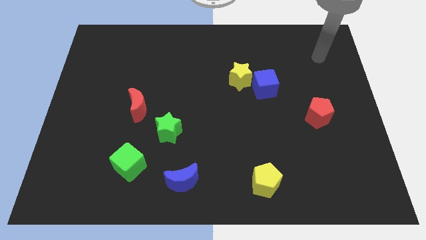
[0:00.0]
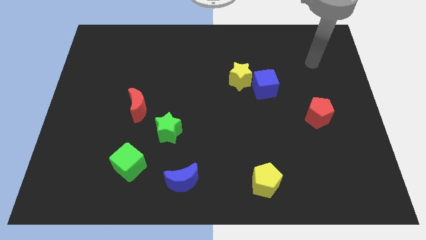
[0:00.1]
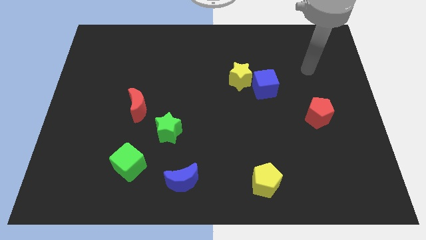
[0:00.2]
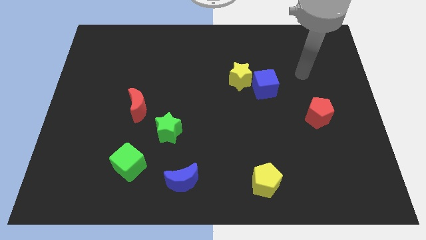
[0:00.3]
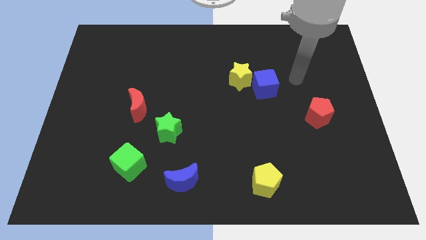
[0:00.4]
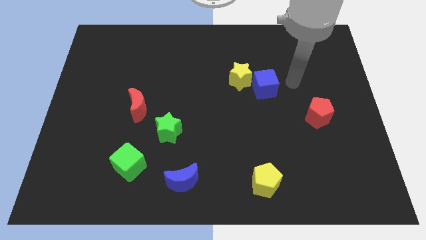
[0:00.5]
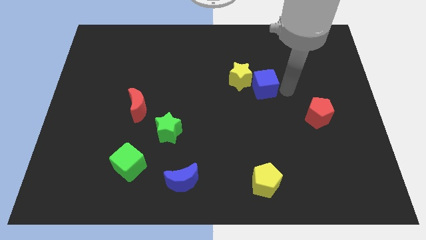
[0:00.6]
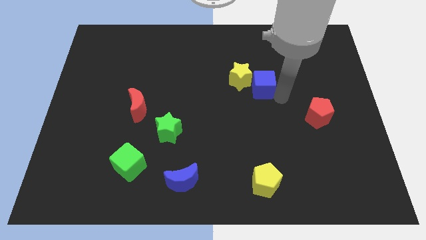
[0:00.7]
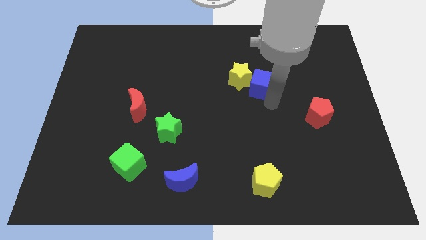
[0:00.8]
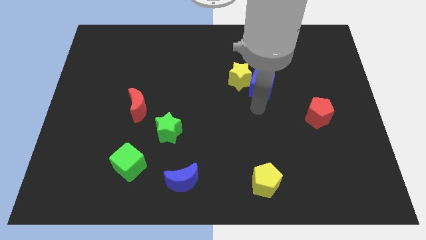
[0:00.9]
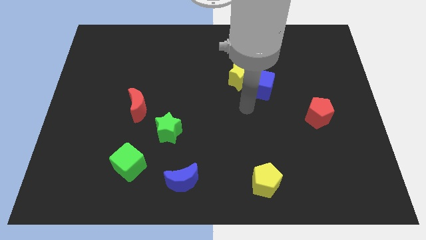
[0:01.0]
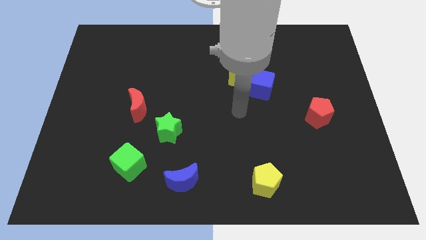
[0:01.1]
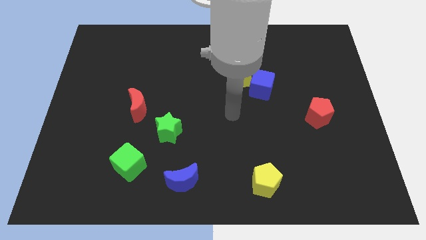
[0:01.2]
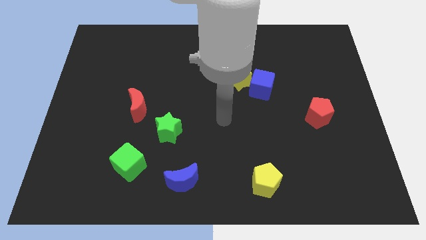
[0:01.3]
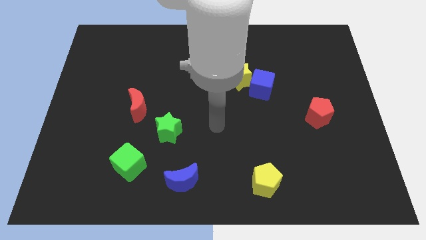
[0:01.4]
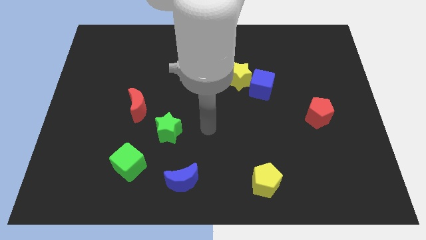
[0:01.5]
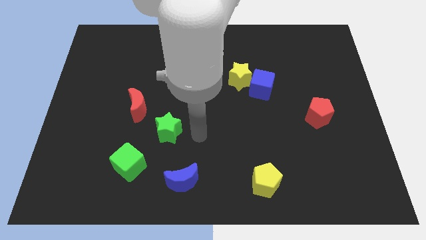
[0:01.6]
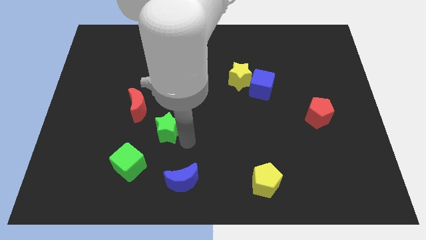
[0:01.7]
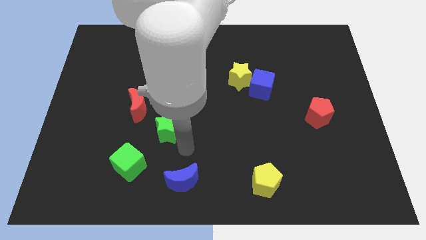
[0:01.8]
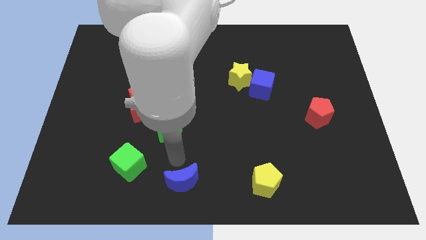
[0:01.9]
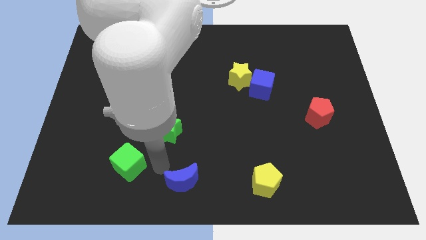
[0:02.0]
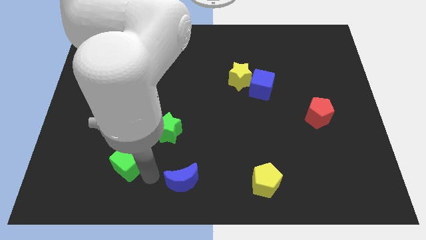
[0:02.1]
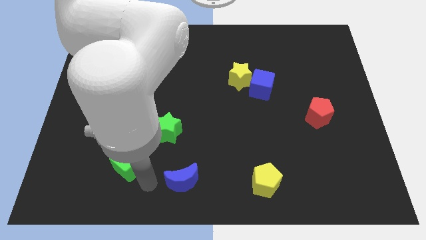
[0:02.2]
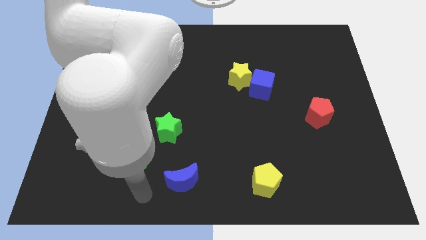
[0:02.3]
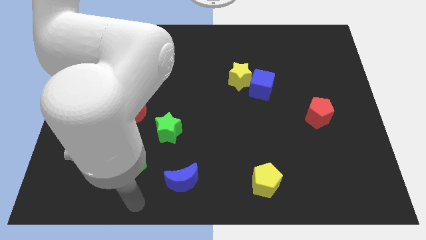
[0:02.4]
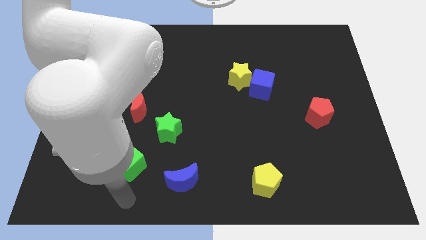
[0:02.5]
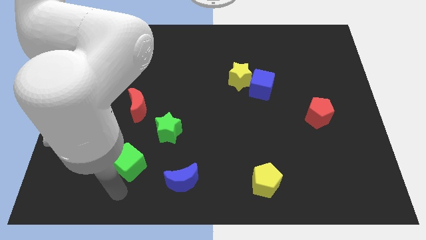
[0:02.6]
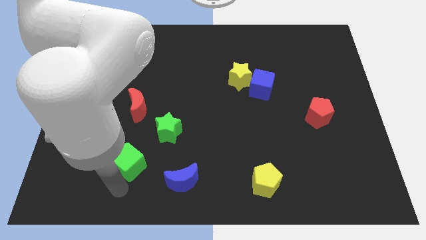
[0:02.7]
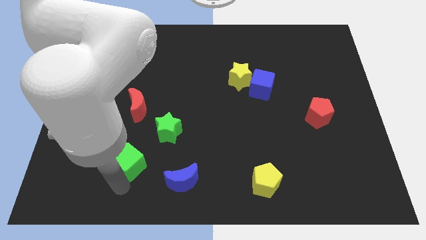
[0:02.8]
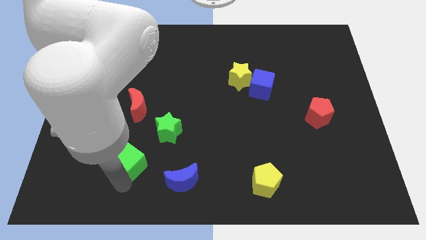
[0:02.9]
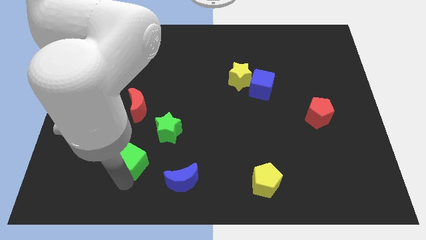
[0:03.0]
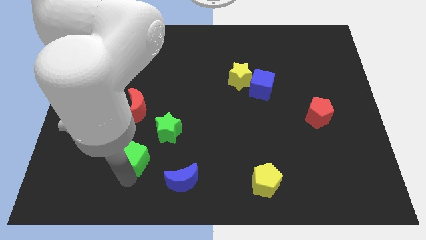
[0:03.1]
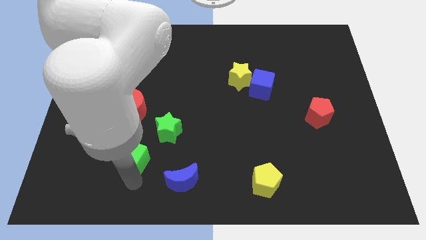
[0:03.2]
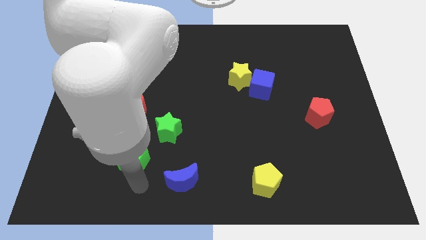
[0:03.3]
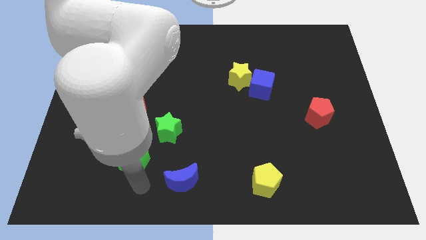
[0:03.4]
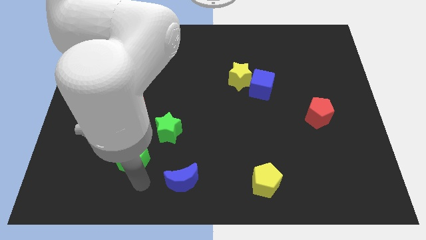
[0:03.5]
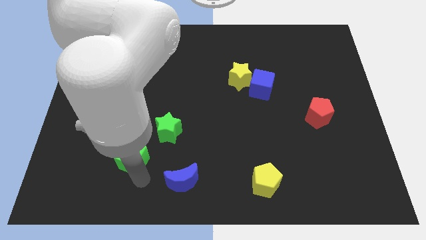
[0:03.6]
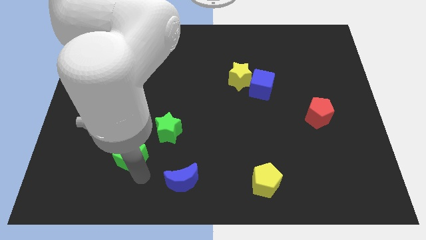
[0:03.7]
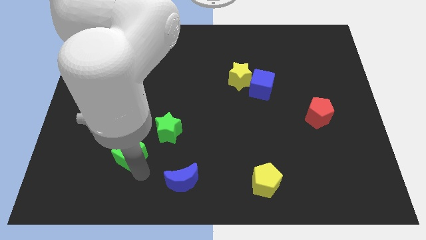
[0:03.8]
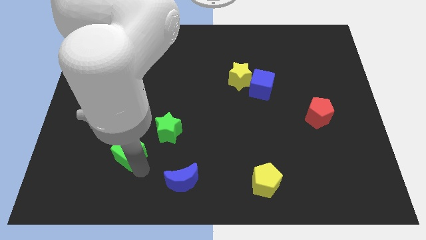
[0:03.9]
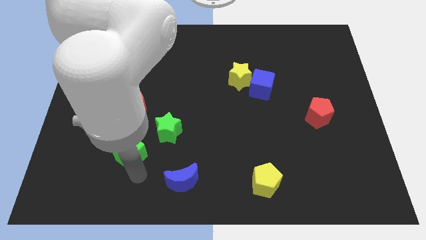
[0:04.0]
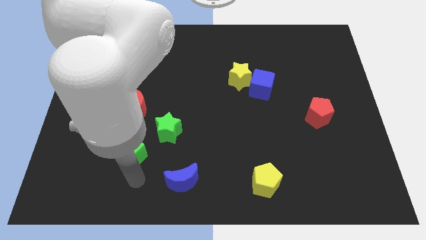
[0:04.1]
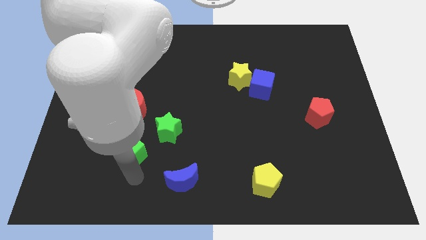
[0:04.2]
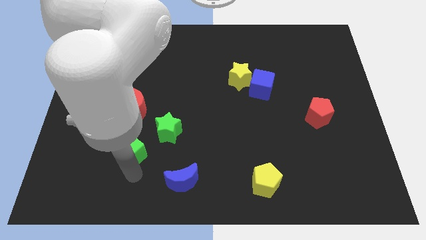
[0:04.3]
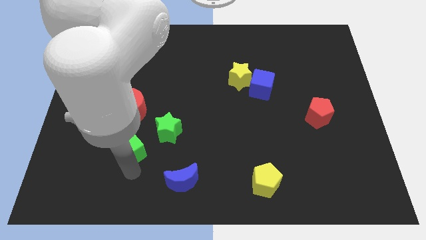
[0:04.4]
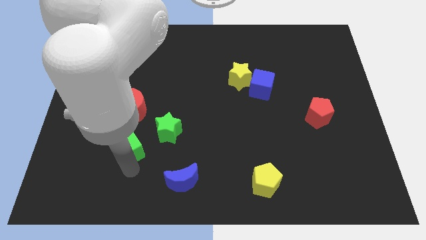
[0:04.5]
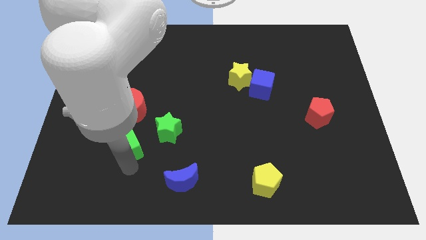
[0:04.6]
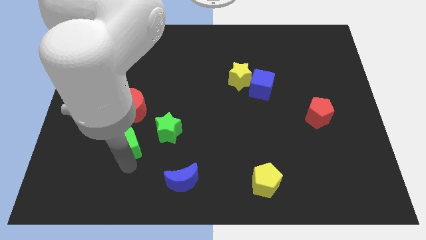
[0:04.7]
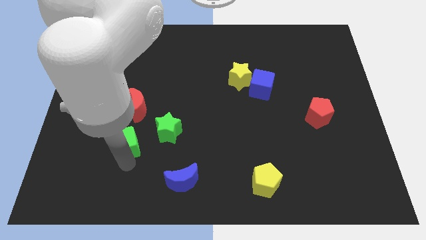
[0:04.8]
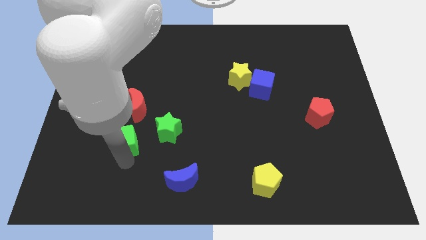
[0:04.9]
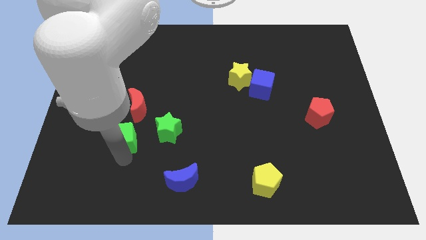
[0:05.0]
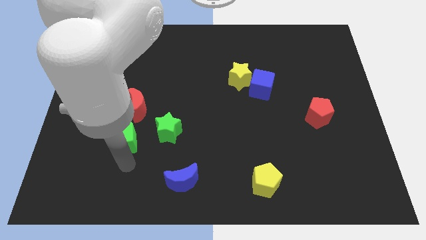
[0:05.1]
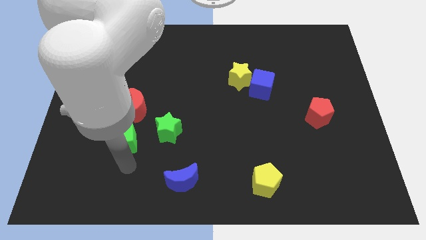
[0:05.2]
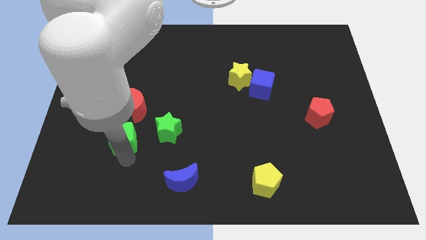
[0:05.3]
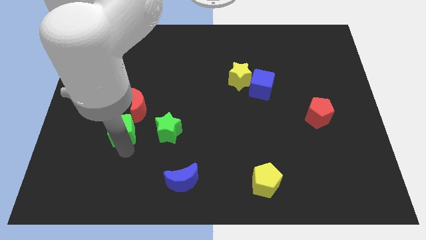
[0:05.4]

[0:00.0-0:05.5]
slide the green cube up a bit

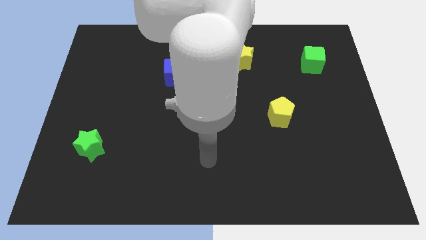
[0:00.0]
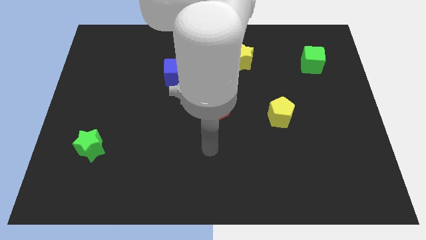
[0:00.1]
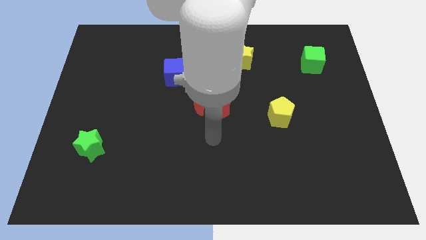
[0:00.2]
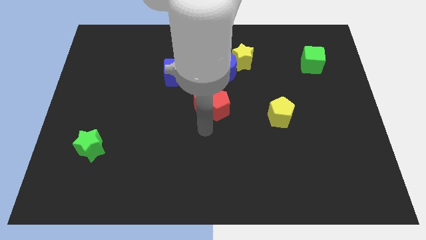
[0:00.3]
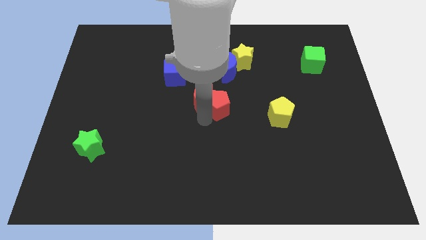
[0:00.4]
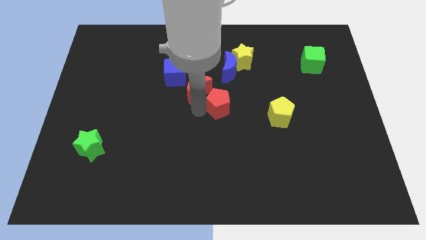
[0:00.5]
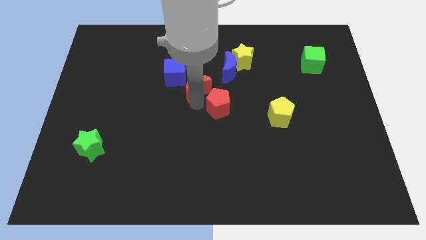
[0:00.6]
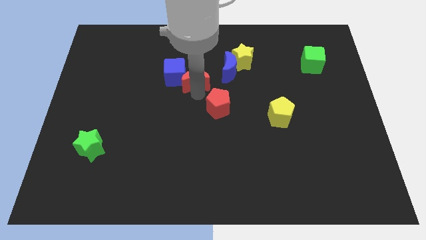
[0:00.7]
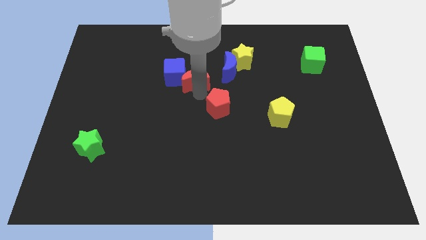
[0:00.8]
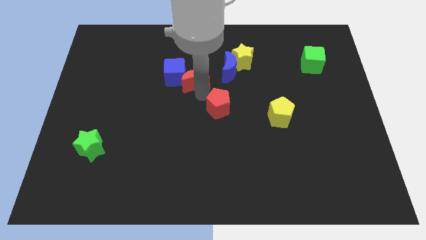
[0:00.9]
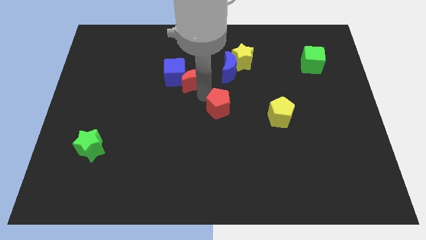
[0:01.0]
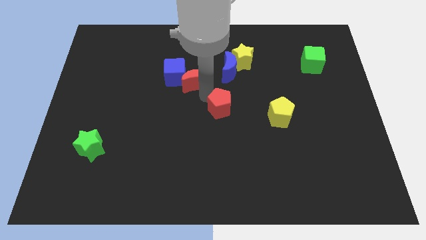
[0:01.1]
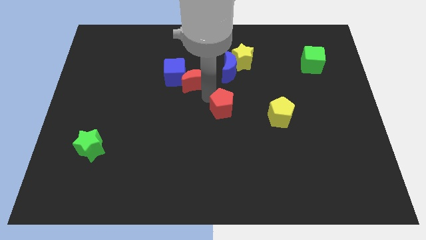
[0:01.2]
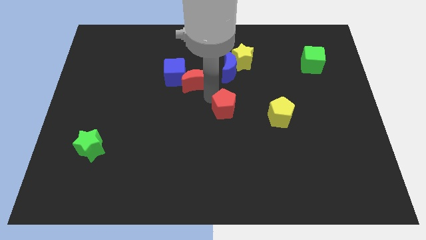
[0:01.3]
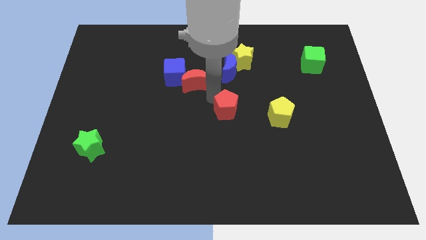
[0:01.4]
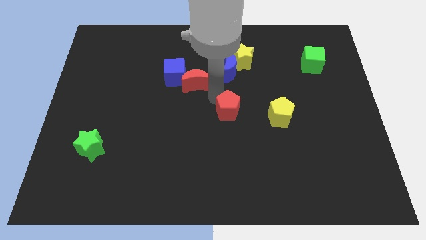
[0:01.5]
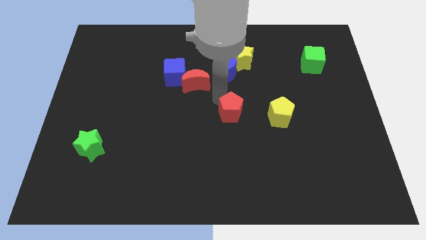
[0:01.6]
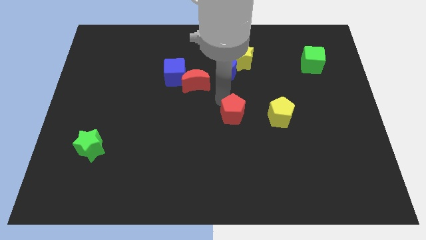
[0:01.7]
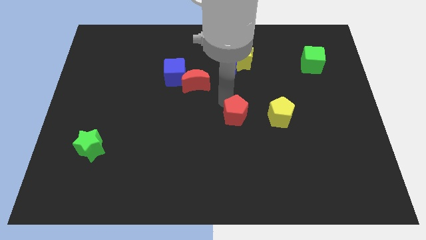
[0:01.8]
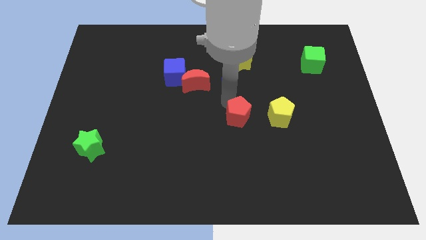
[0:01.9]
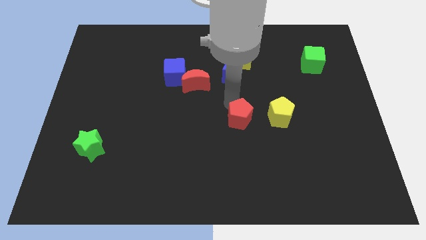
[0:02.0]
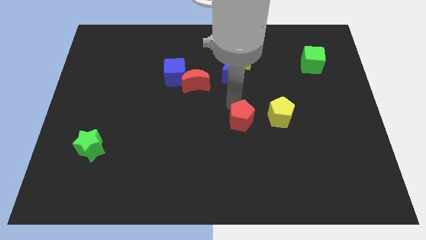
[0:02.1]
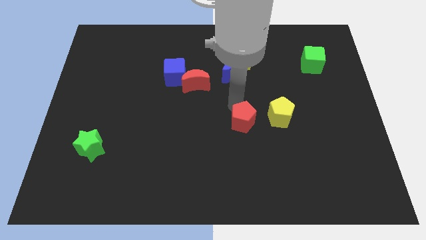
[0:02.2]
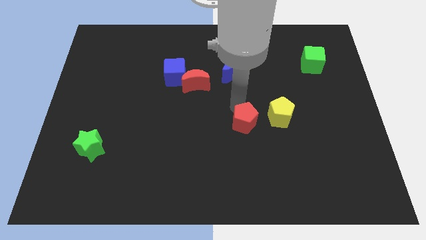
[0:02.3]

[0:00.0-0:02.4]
slide the red pentagon a little bit diagonally downwards and right
